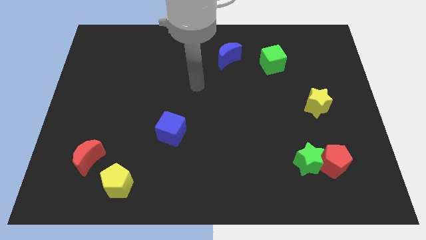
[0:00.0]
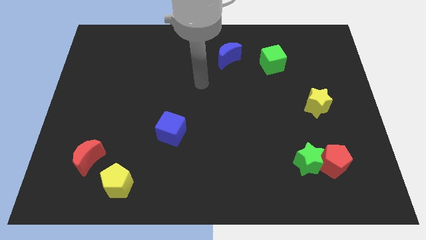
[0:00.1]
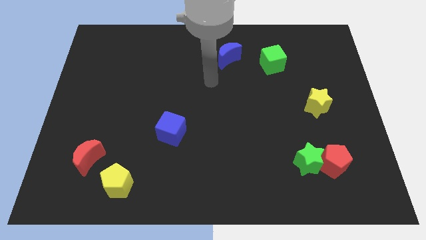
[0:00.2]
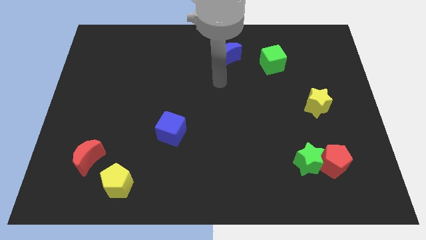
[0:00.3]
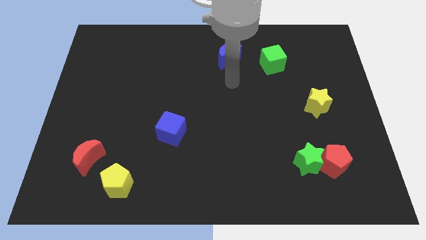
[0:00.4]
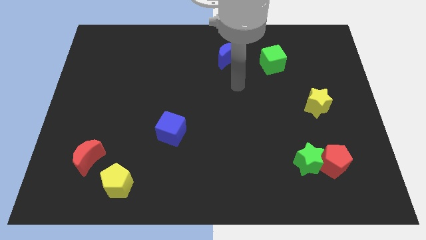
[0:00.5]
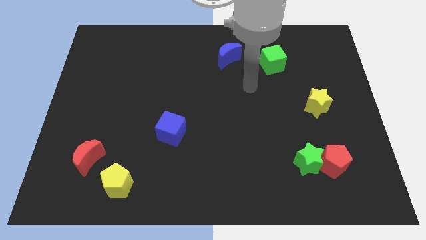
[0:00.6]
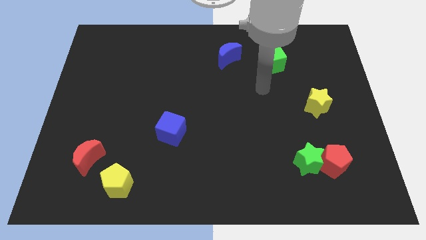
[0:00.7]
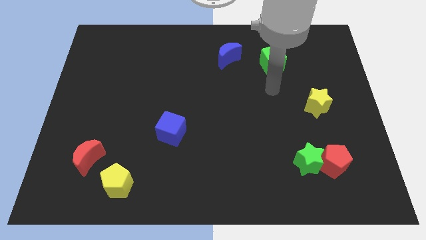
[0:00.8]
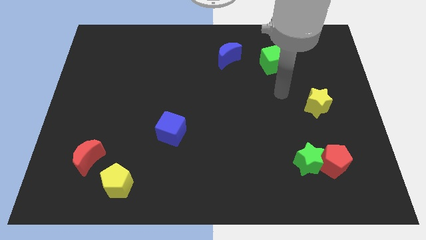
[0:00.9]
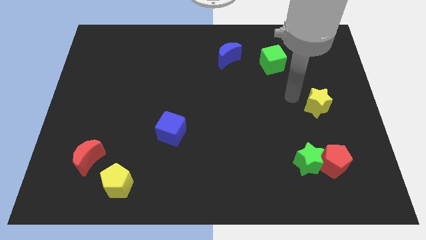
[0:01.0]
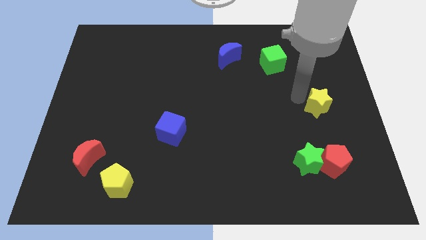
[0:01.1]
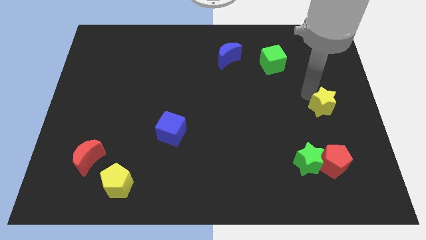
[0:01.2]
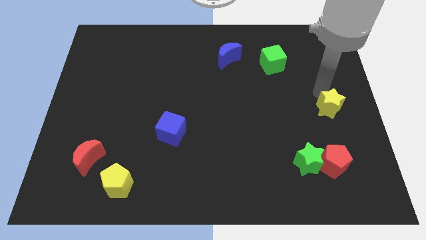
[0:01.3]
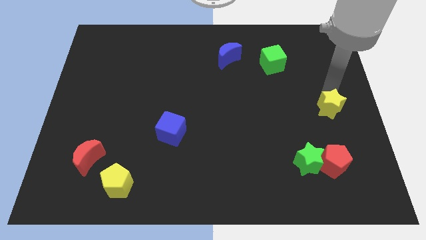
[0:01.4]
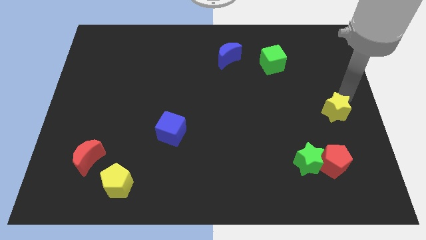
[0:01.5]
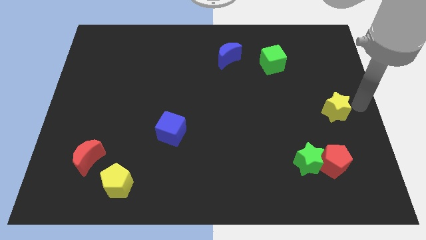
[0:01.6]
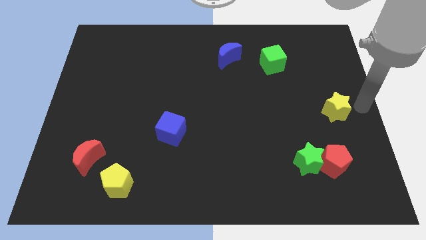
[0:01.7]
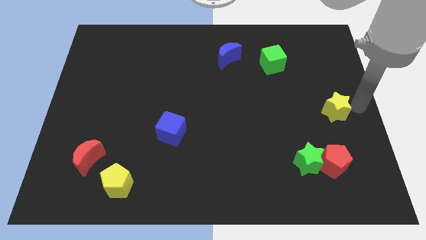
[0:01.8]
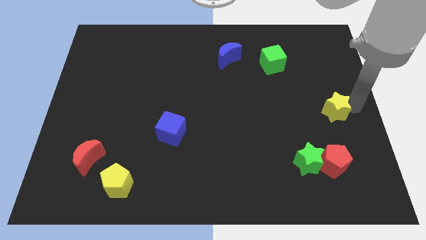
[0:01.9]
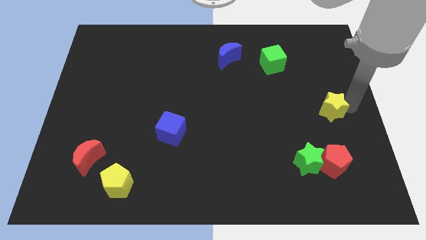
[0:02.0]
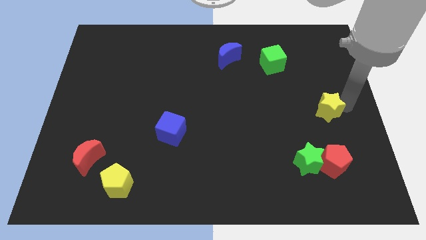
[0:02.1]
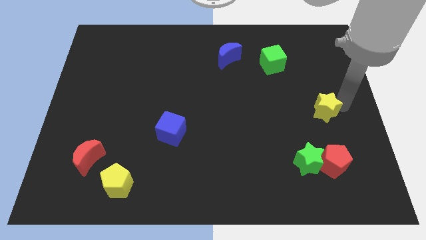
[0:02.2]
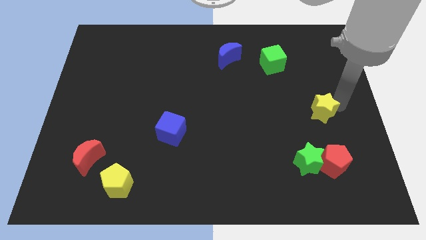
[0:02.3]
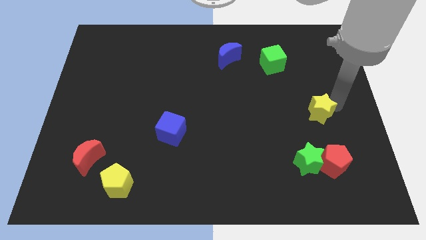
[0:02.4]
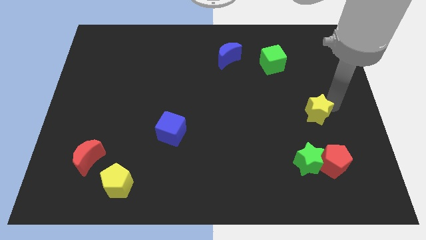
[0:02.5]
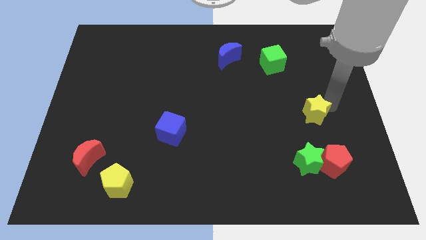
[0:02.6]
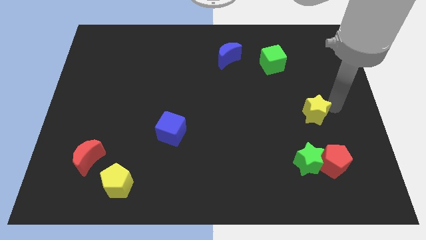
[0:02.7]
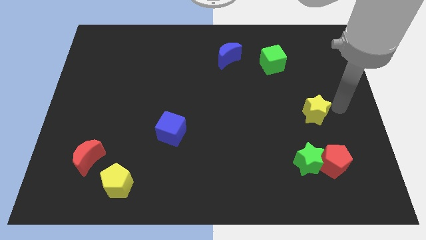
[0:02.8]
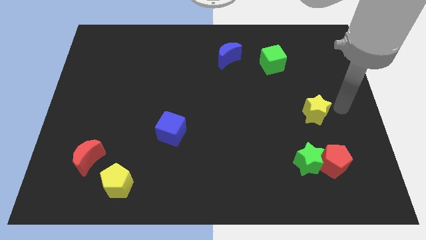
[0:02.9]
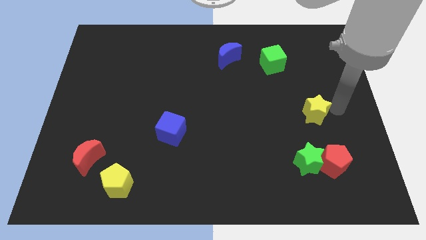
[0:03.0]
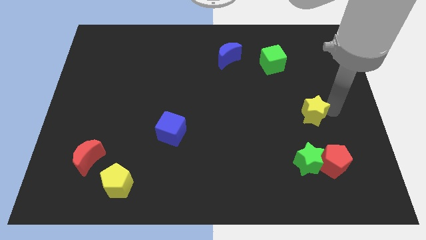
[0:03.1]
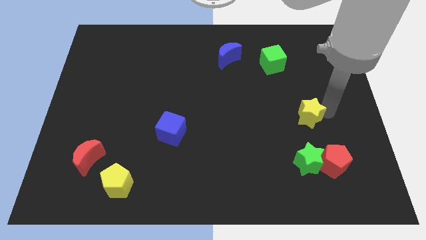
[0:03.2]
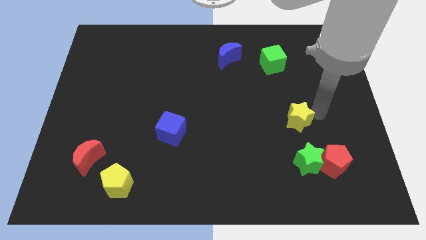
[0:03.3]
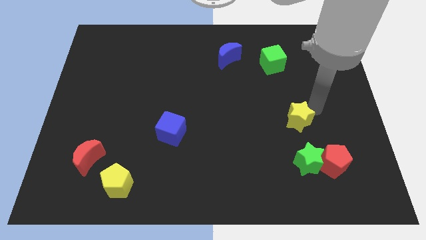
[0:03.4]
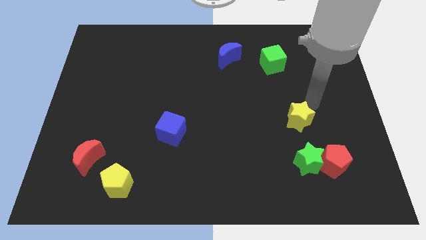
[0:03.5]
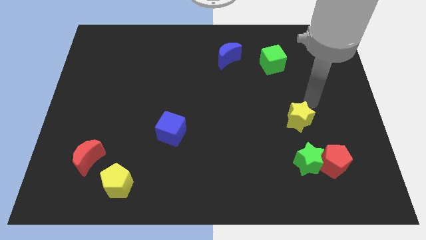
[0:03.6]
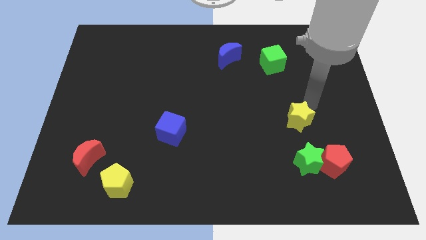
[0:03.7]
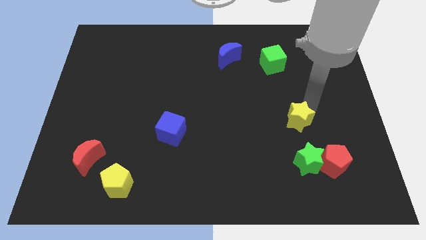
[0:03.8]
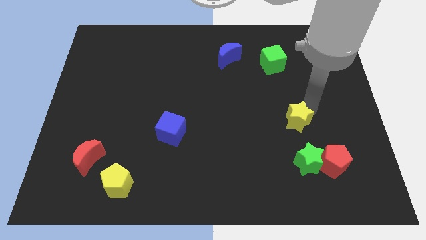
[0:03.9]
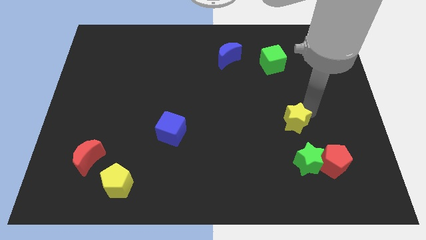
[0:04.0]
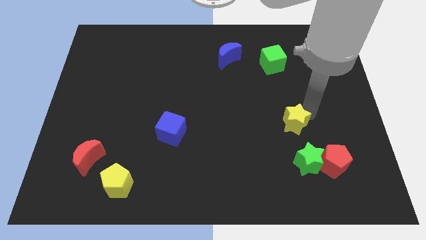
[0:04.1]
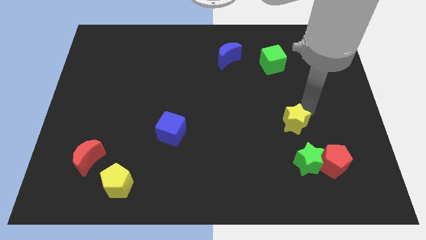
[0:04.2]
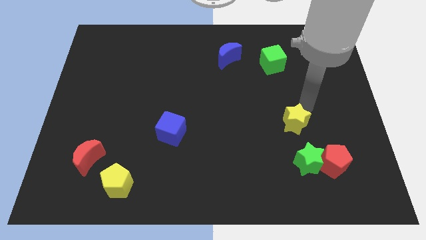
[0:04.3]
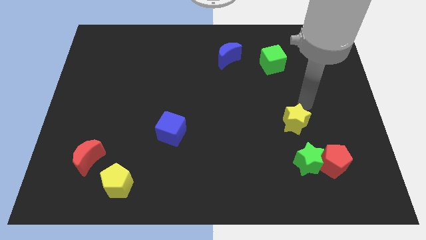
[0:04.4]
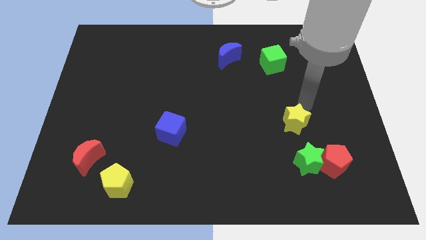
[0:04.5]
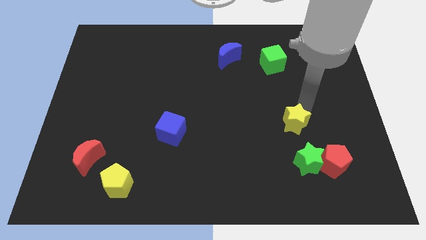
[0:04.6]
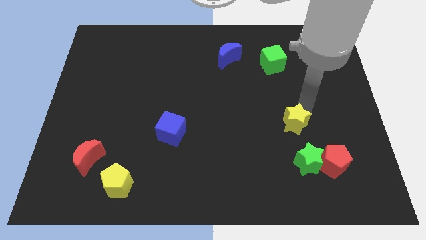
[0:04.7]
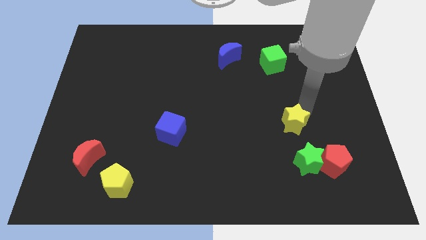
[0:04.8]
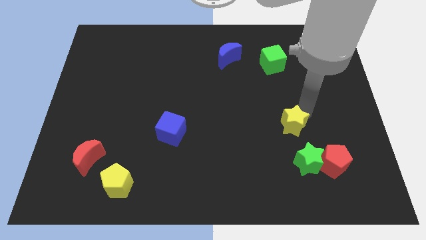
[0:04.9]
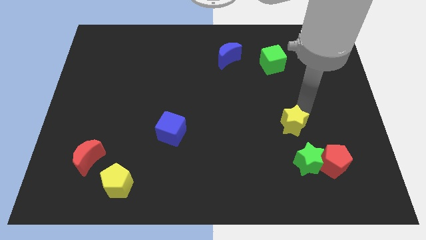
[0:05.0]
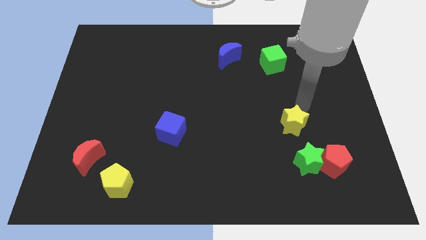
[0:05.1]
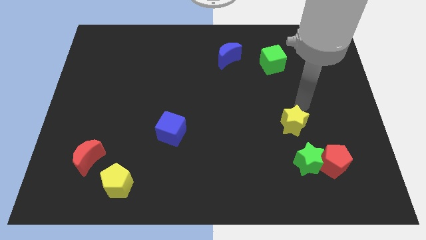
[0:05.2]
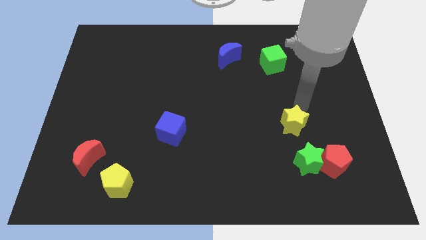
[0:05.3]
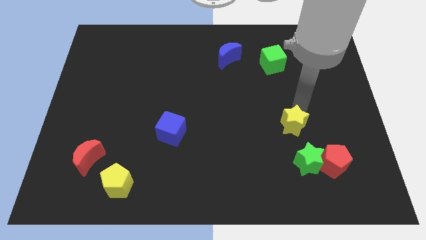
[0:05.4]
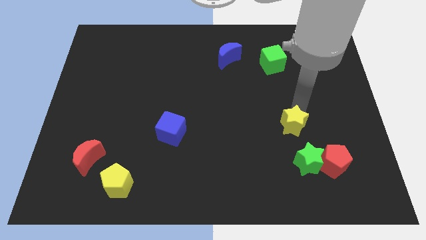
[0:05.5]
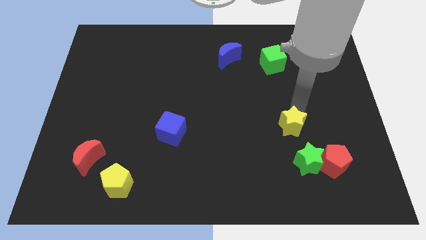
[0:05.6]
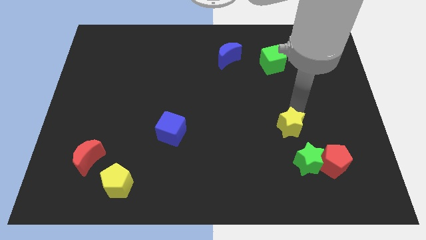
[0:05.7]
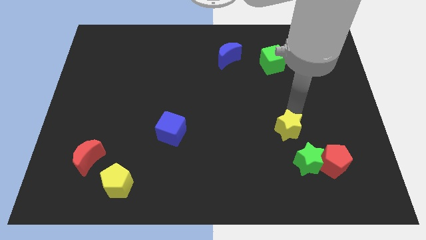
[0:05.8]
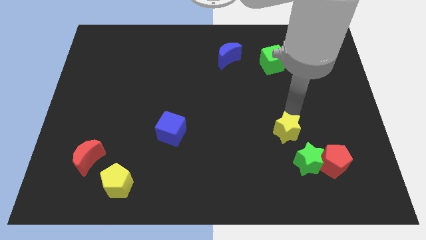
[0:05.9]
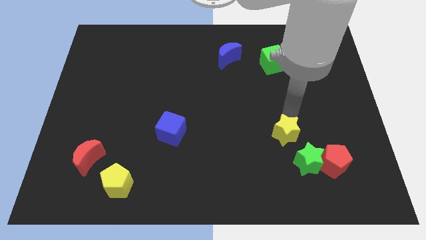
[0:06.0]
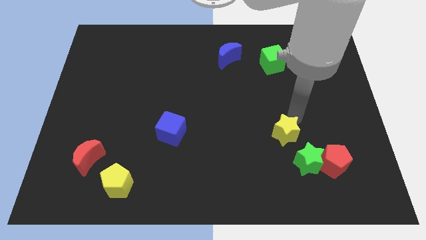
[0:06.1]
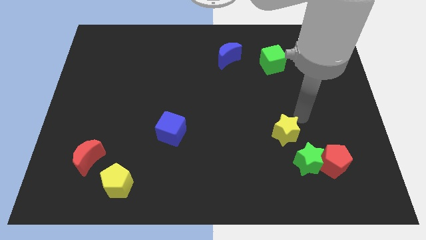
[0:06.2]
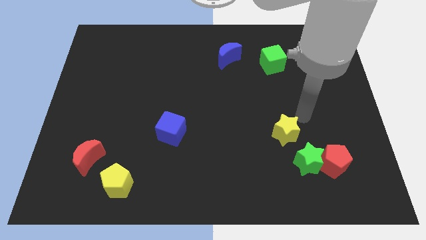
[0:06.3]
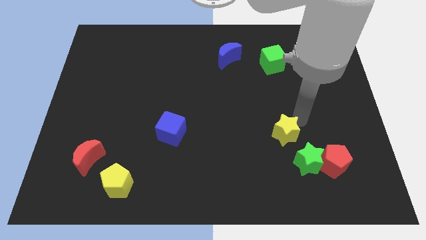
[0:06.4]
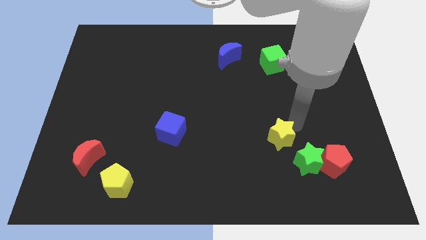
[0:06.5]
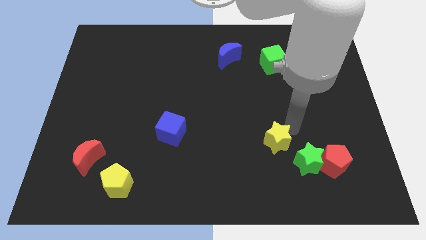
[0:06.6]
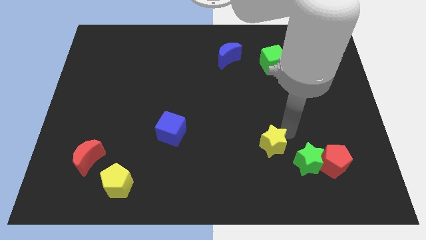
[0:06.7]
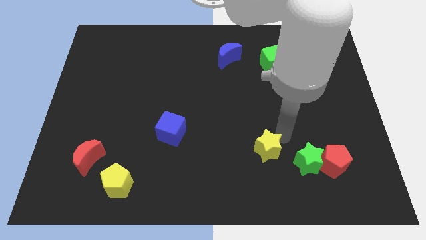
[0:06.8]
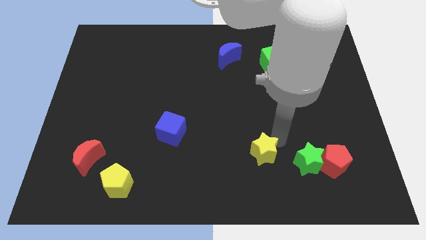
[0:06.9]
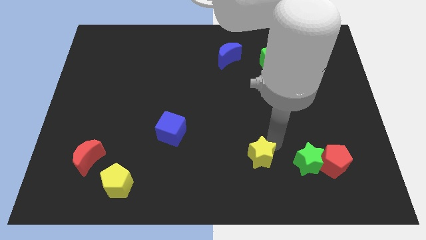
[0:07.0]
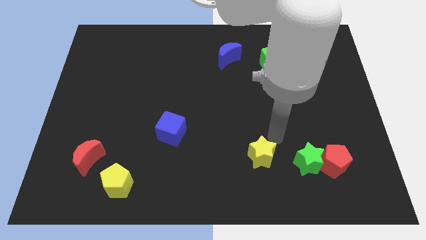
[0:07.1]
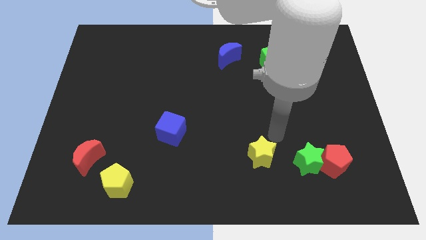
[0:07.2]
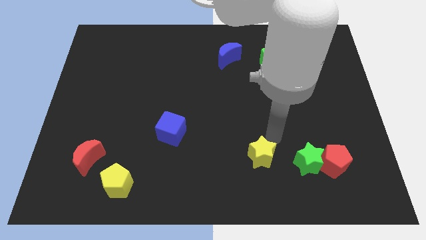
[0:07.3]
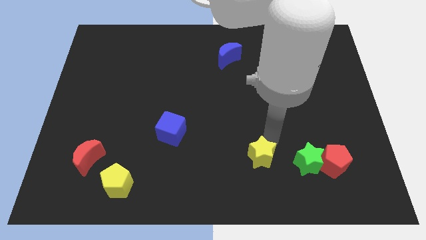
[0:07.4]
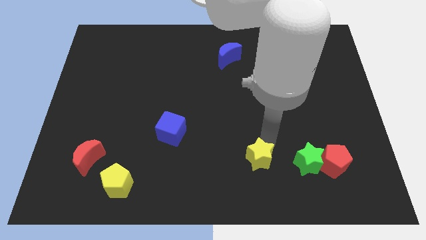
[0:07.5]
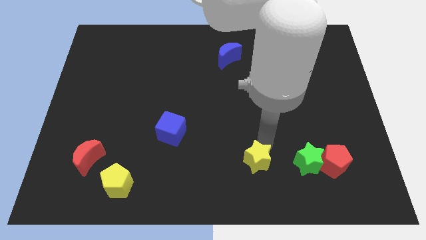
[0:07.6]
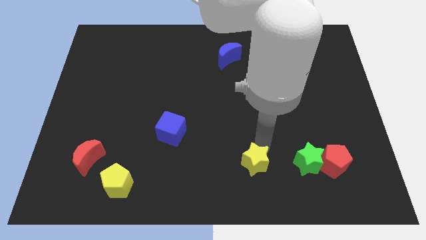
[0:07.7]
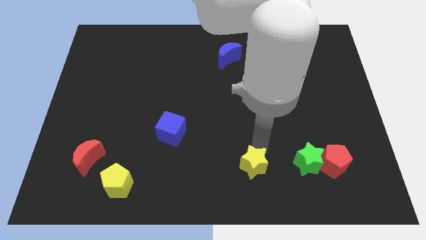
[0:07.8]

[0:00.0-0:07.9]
move the yellow star to the bottom
